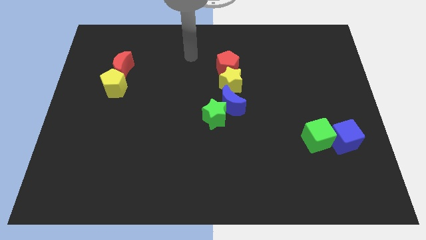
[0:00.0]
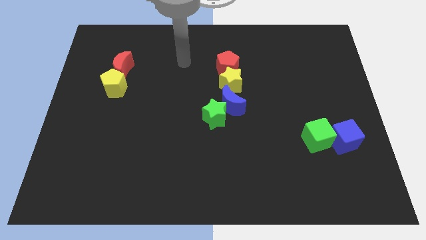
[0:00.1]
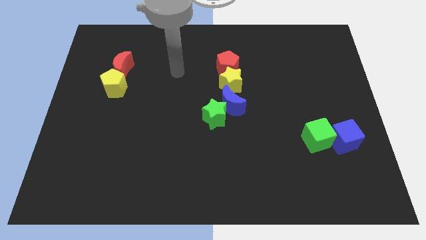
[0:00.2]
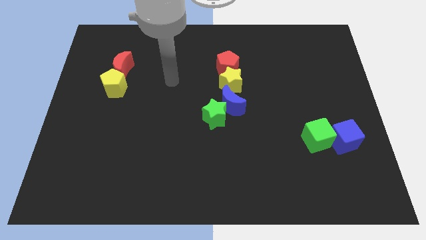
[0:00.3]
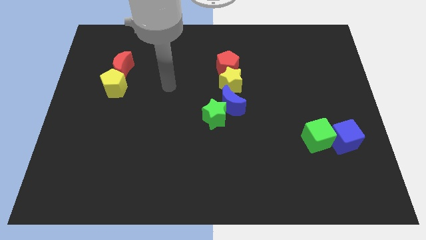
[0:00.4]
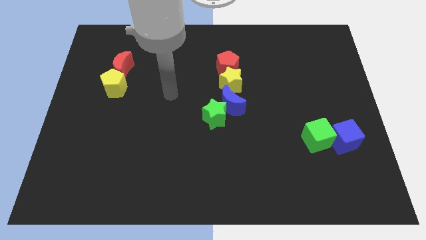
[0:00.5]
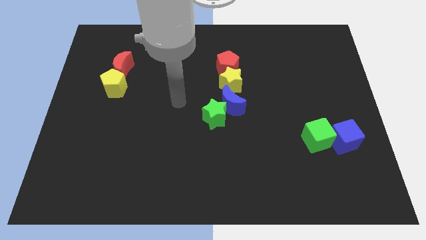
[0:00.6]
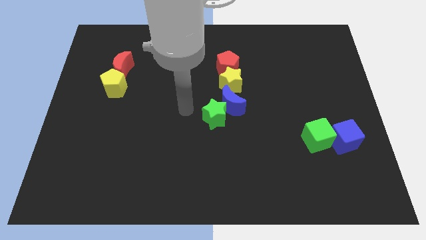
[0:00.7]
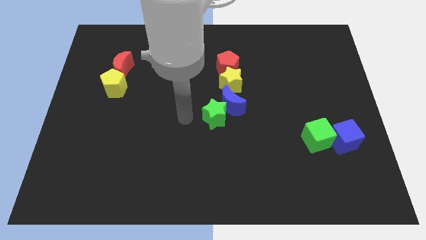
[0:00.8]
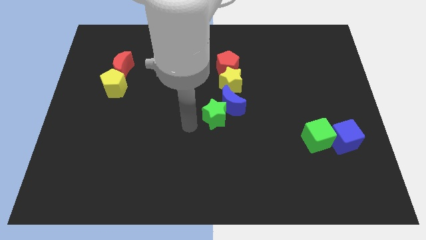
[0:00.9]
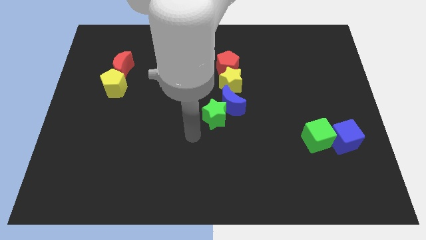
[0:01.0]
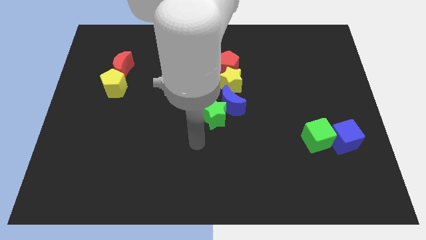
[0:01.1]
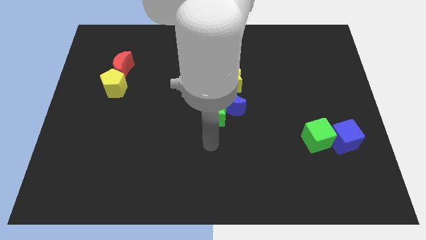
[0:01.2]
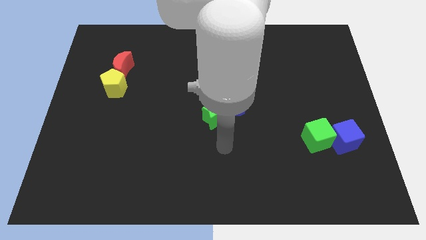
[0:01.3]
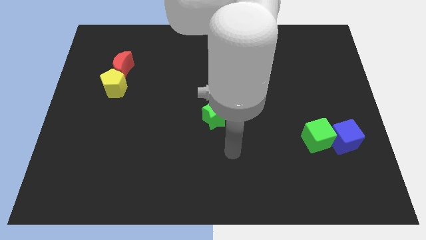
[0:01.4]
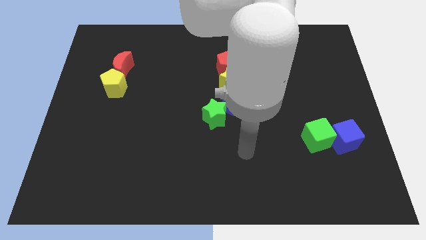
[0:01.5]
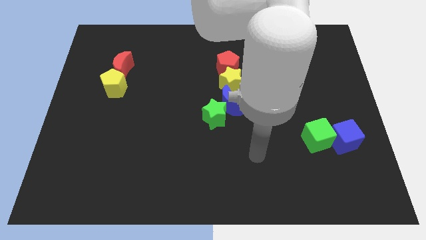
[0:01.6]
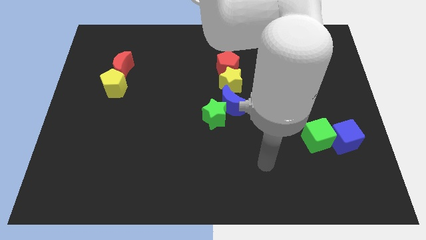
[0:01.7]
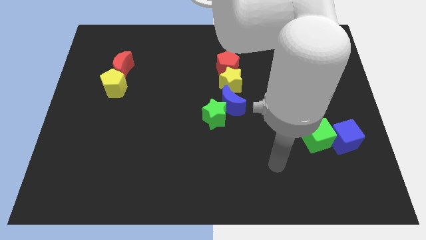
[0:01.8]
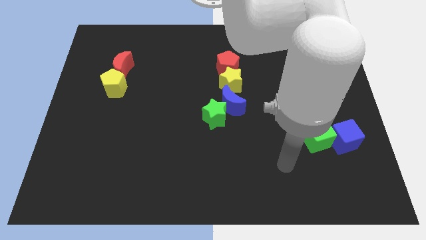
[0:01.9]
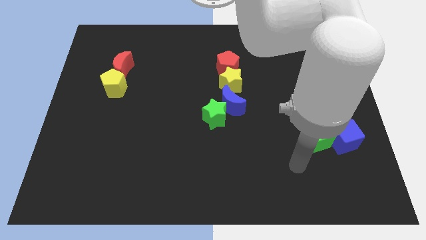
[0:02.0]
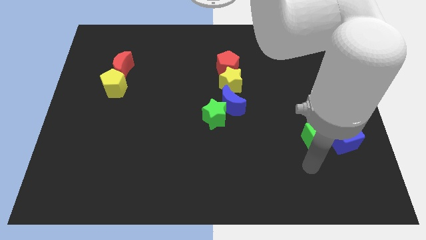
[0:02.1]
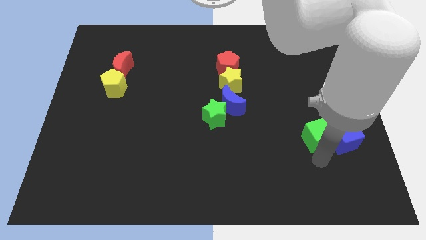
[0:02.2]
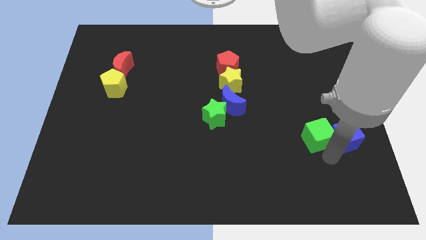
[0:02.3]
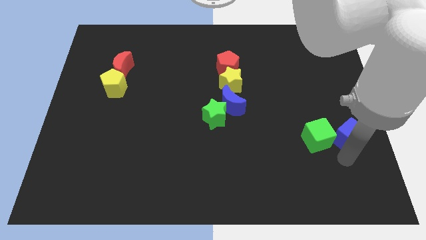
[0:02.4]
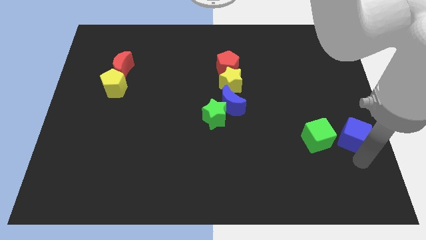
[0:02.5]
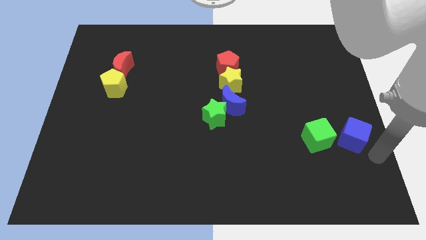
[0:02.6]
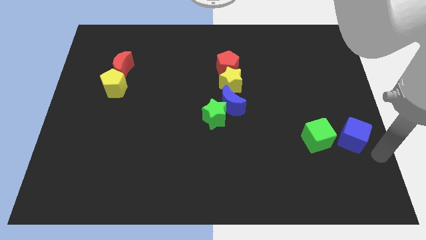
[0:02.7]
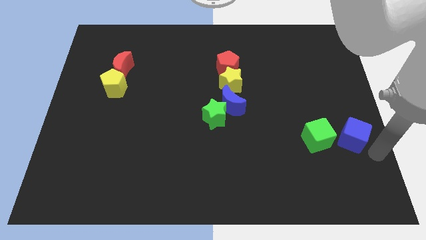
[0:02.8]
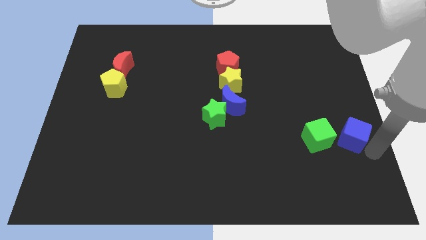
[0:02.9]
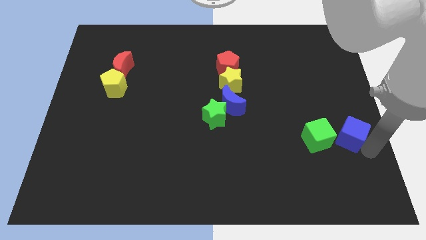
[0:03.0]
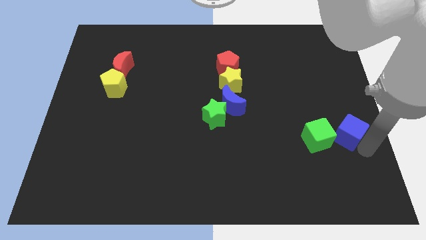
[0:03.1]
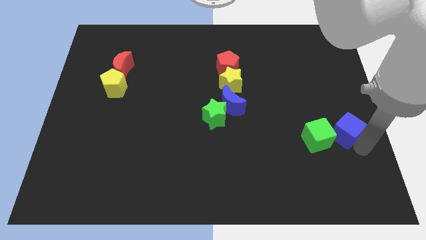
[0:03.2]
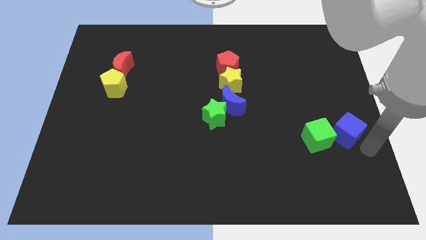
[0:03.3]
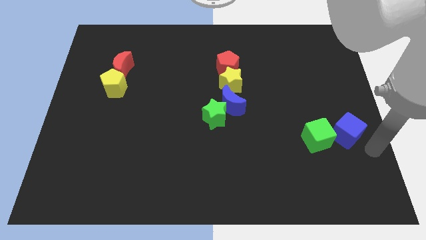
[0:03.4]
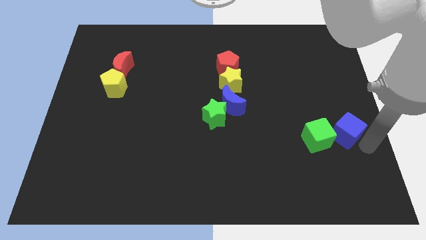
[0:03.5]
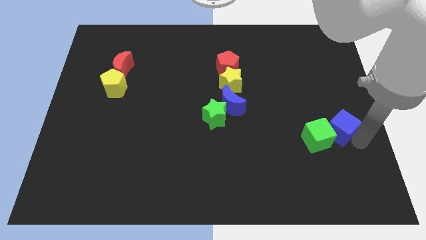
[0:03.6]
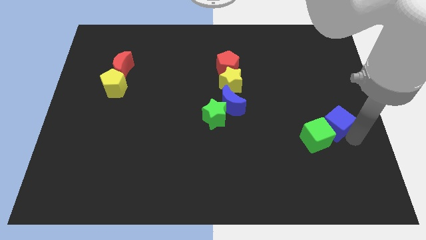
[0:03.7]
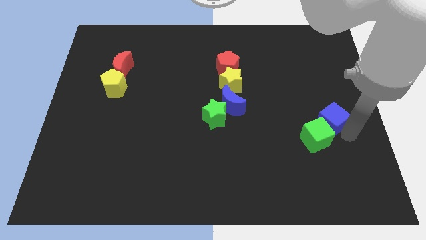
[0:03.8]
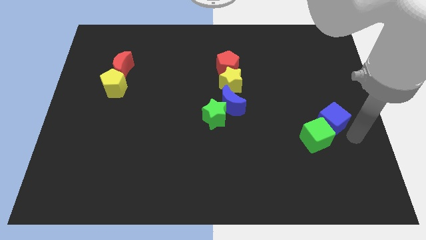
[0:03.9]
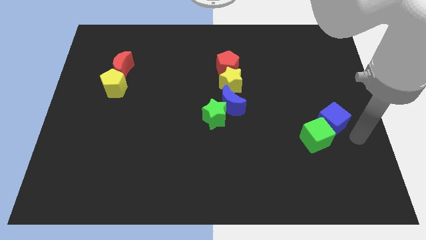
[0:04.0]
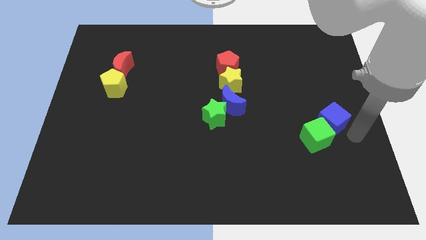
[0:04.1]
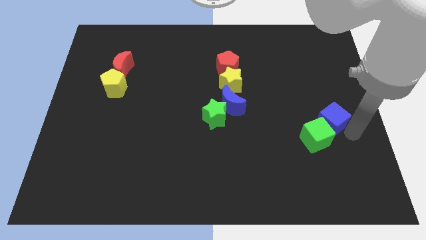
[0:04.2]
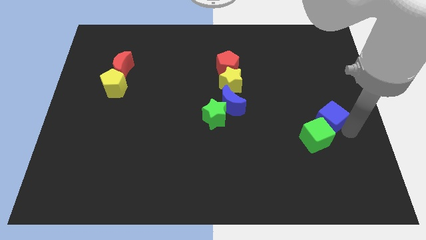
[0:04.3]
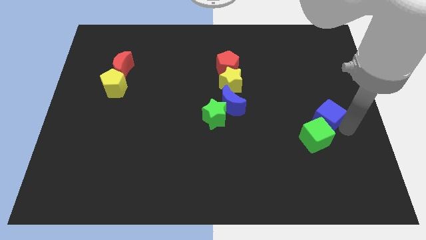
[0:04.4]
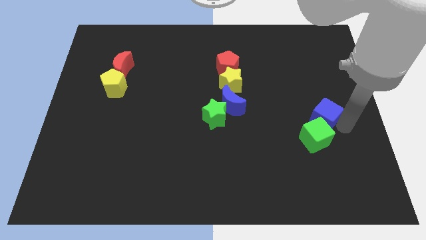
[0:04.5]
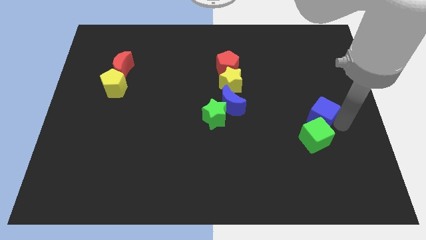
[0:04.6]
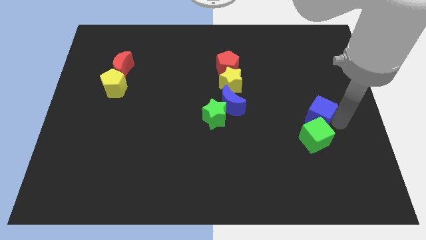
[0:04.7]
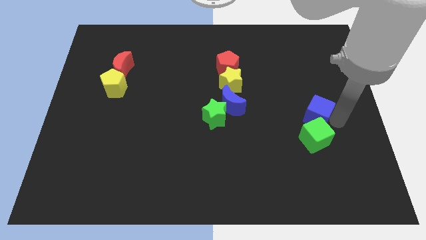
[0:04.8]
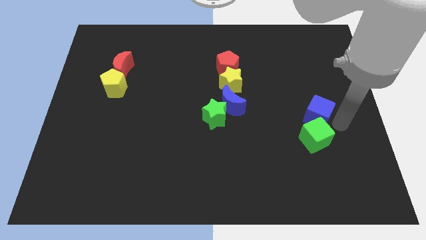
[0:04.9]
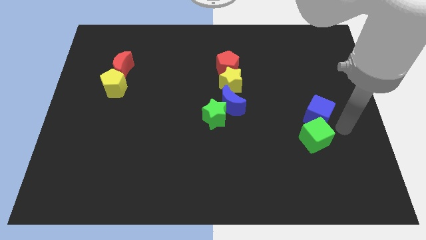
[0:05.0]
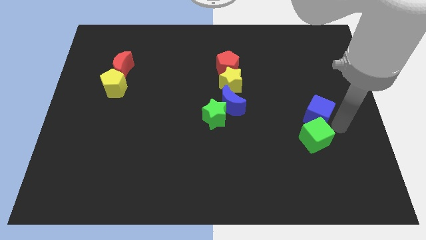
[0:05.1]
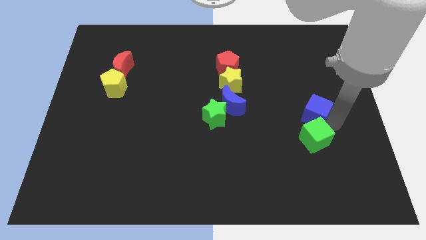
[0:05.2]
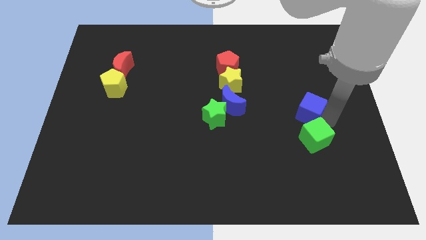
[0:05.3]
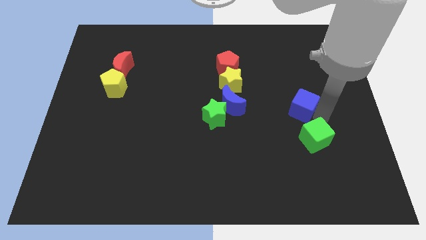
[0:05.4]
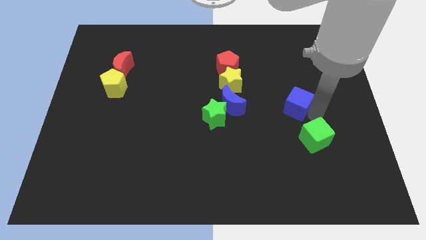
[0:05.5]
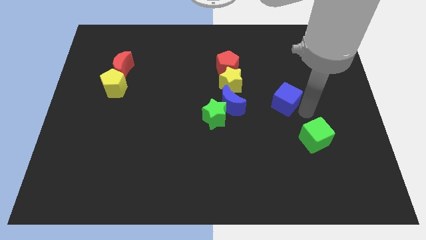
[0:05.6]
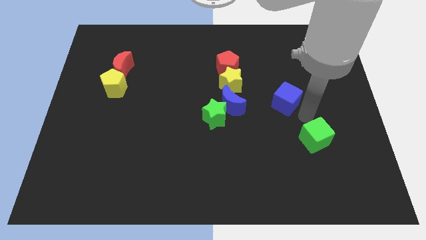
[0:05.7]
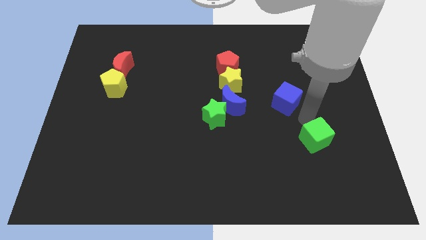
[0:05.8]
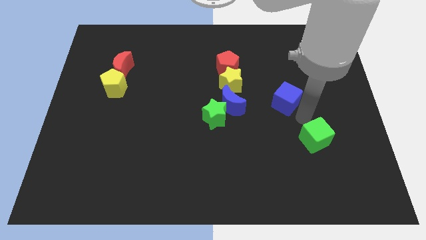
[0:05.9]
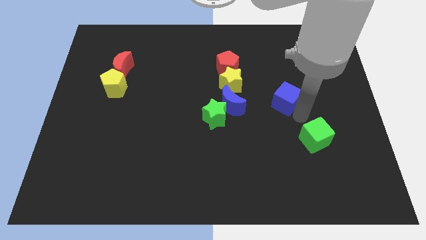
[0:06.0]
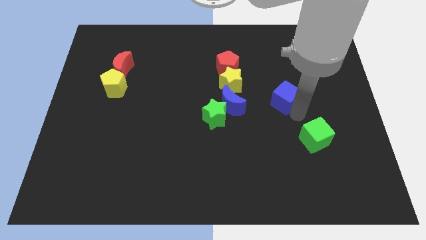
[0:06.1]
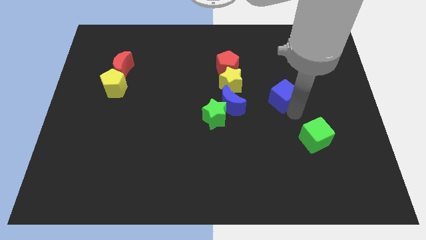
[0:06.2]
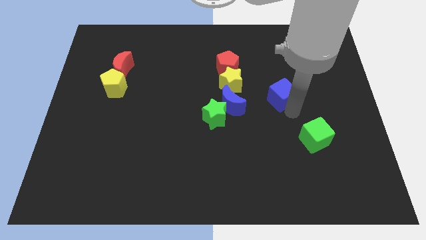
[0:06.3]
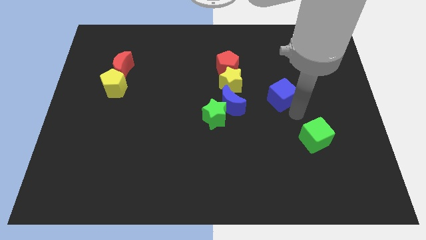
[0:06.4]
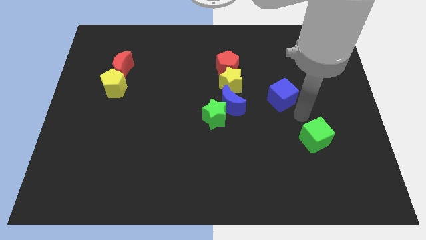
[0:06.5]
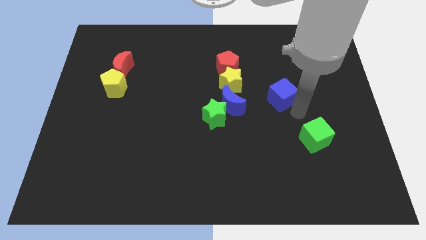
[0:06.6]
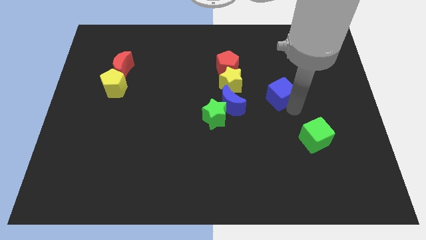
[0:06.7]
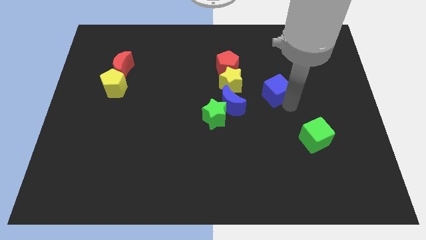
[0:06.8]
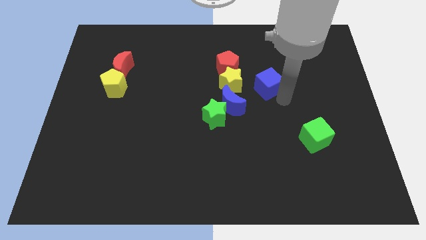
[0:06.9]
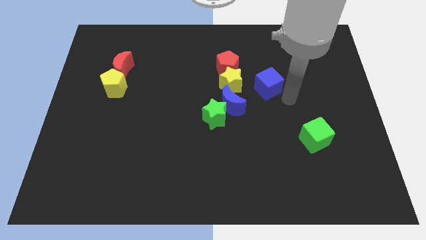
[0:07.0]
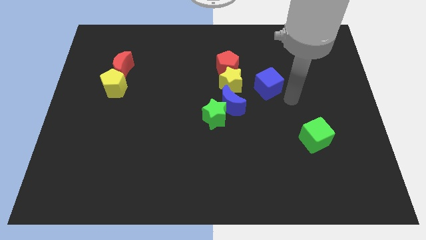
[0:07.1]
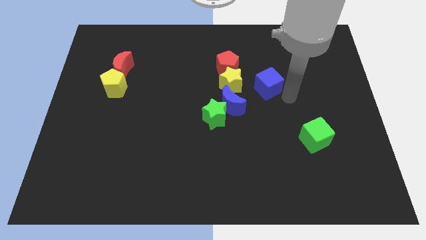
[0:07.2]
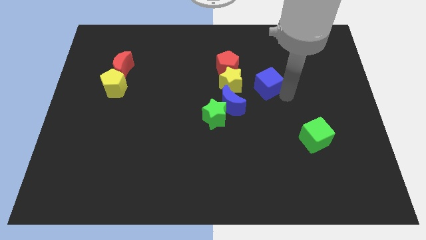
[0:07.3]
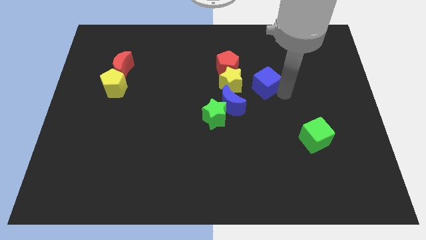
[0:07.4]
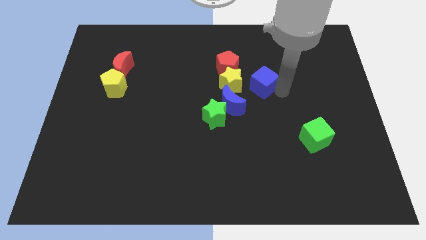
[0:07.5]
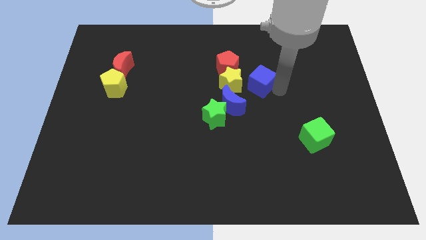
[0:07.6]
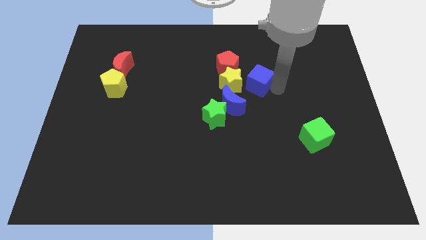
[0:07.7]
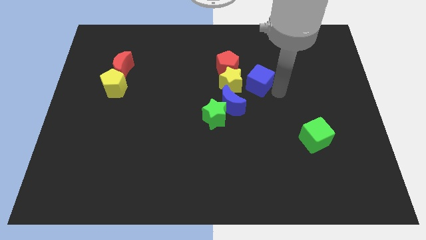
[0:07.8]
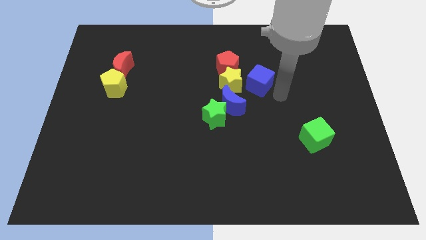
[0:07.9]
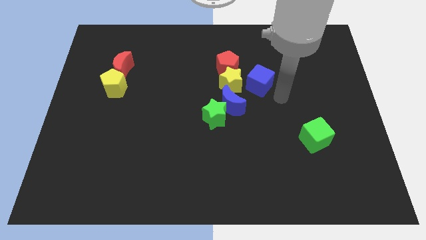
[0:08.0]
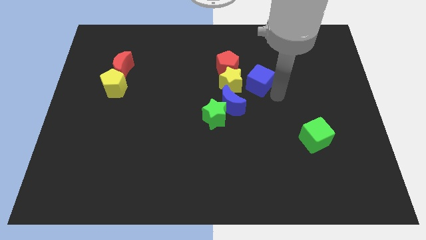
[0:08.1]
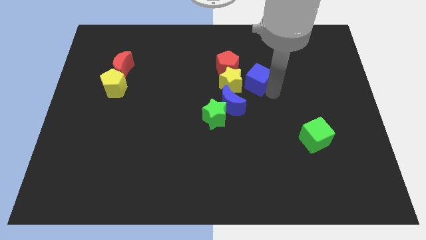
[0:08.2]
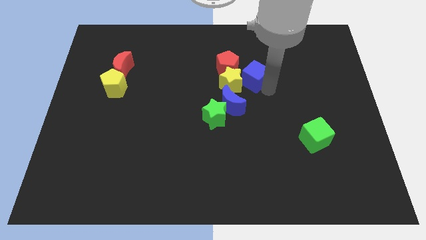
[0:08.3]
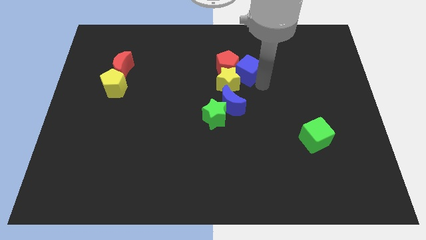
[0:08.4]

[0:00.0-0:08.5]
slide the blue cube to the red pentagon
